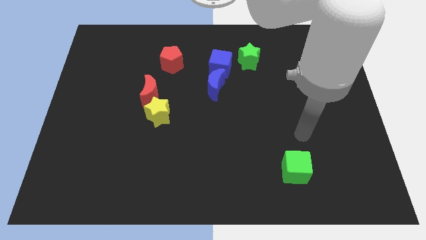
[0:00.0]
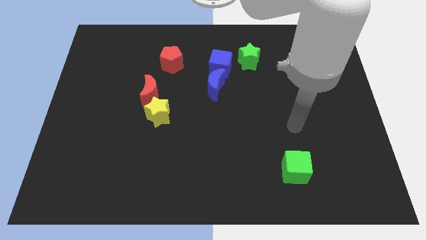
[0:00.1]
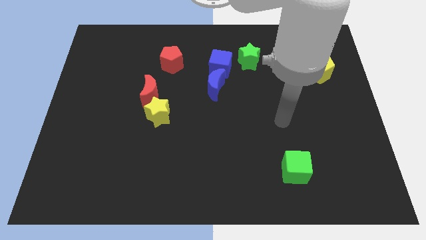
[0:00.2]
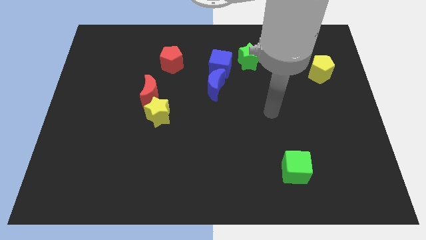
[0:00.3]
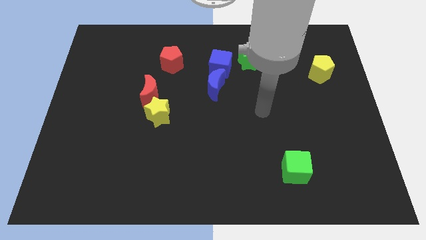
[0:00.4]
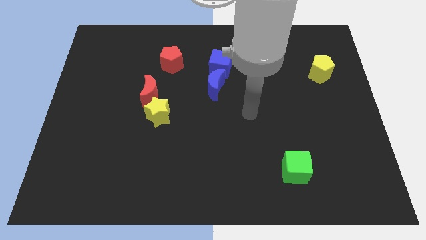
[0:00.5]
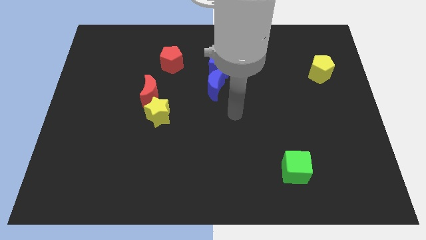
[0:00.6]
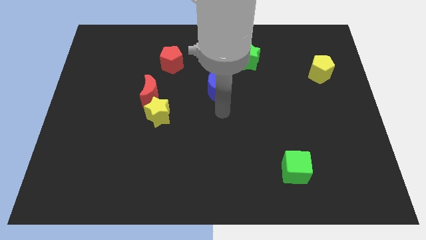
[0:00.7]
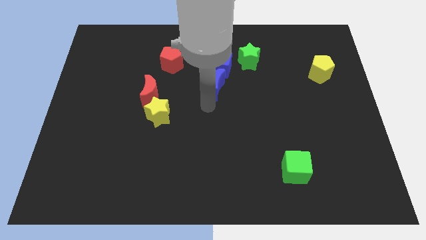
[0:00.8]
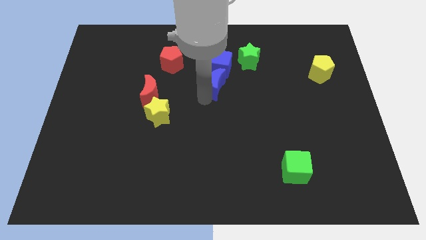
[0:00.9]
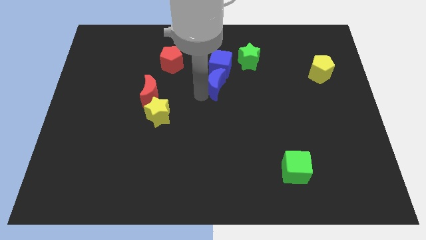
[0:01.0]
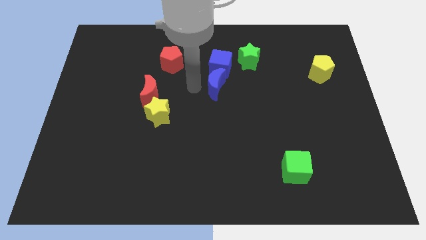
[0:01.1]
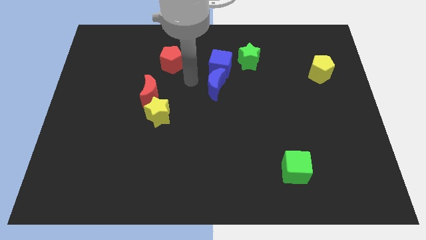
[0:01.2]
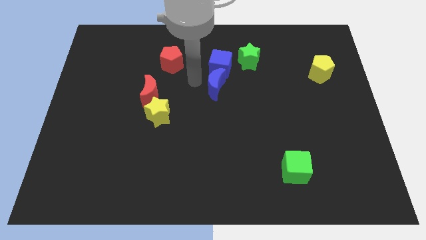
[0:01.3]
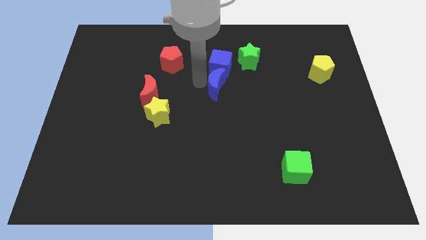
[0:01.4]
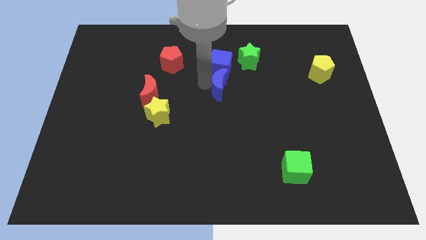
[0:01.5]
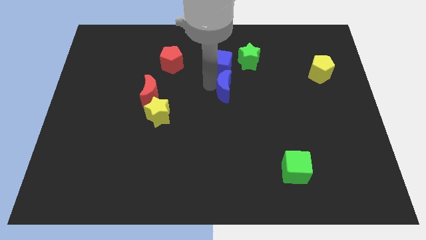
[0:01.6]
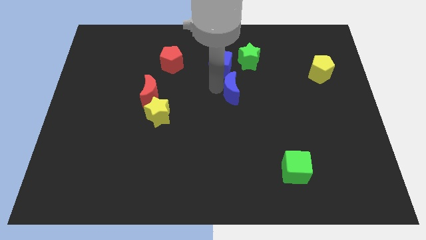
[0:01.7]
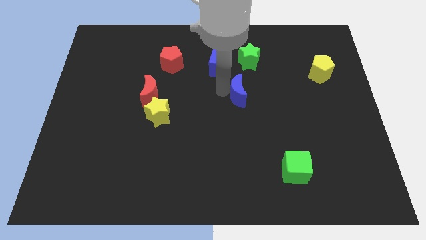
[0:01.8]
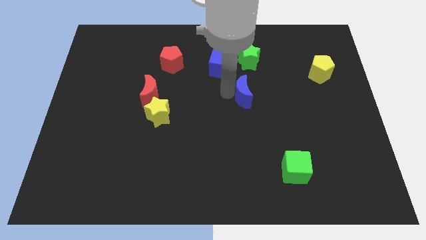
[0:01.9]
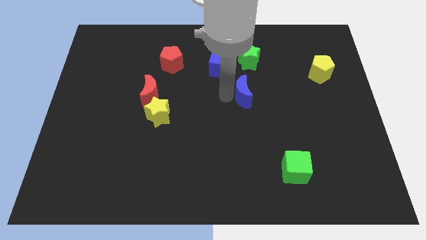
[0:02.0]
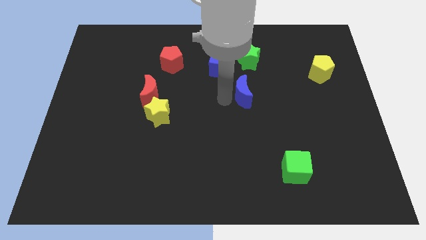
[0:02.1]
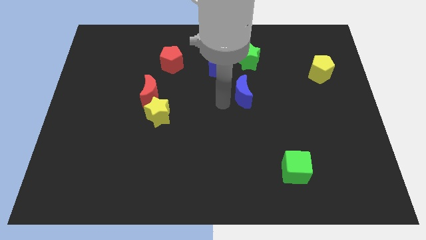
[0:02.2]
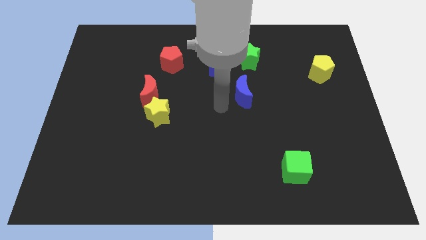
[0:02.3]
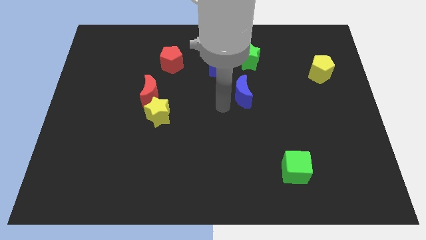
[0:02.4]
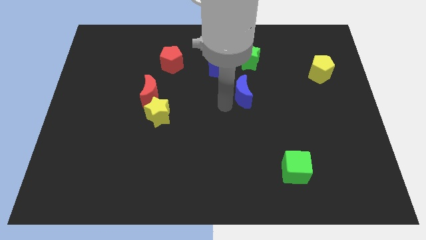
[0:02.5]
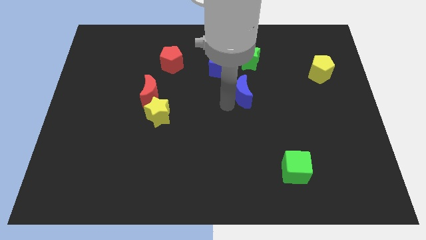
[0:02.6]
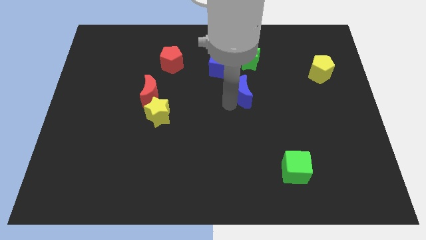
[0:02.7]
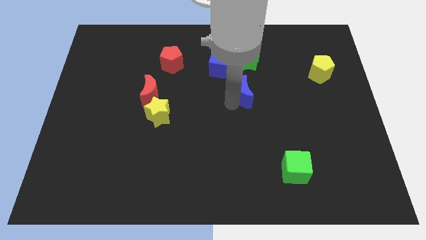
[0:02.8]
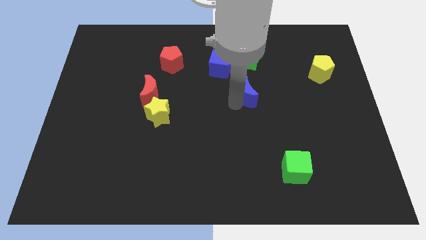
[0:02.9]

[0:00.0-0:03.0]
move the blue moon a bit right

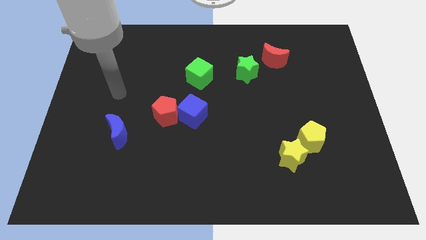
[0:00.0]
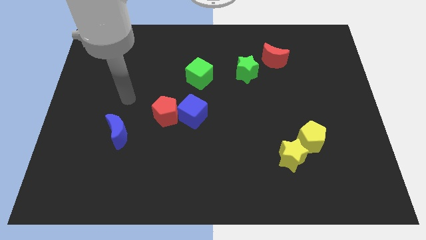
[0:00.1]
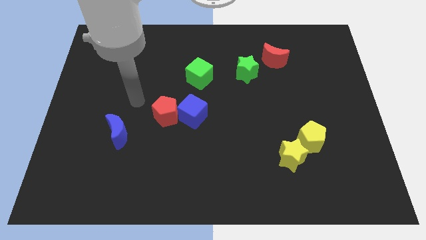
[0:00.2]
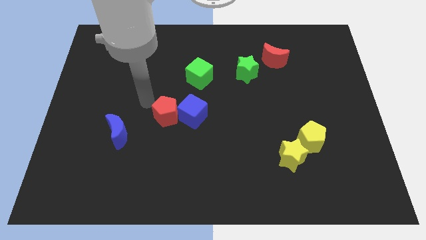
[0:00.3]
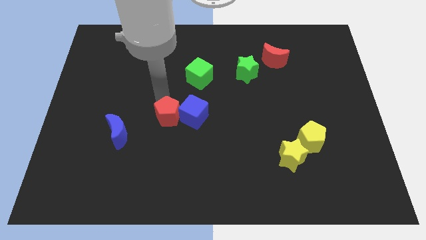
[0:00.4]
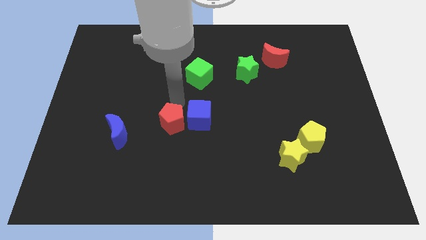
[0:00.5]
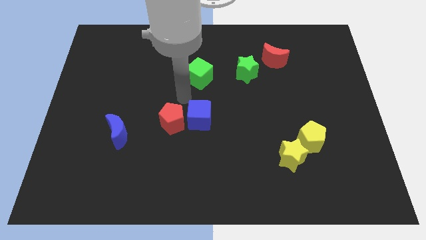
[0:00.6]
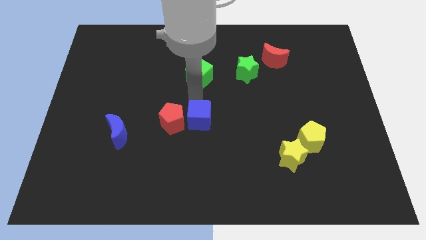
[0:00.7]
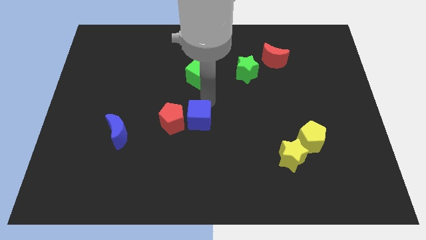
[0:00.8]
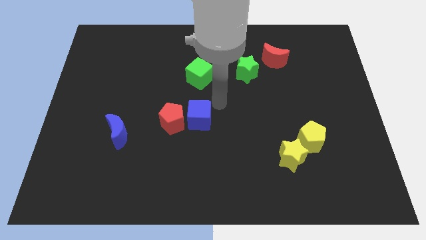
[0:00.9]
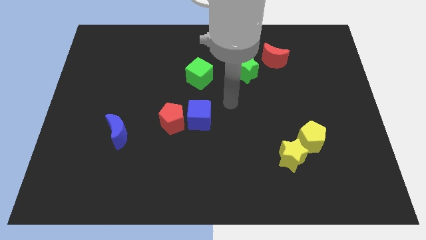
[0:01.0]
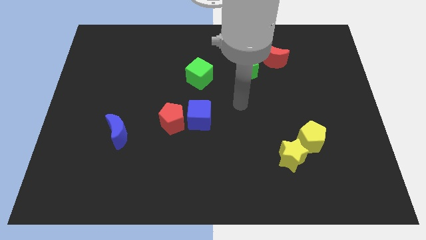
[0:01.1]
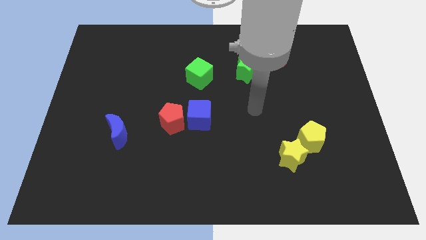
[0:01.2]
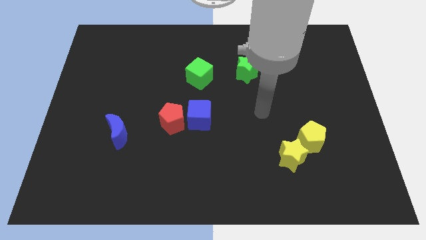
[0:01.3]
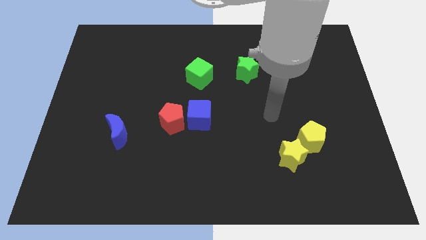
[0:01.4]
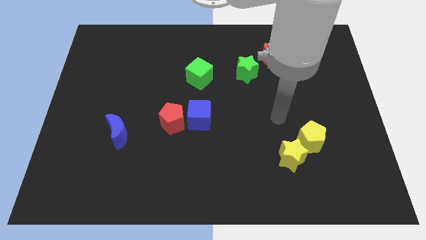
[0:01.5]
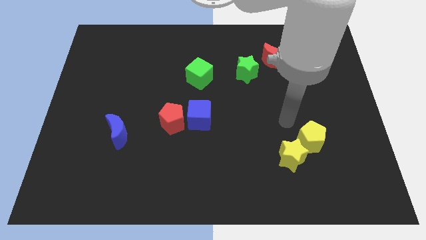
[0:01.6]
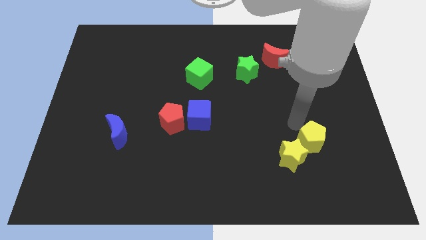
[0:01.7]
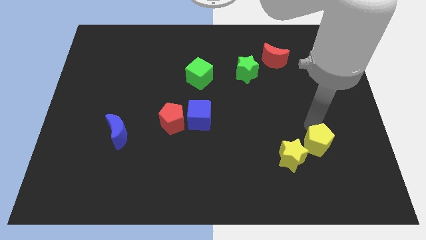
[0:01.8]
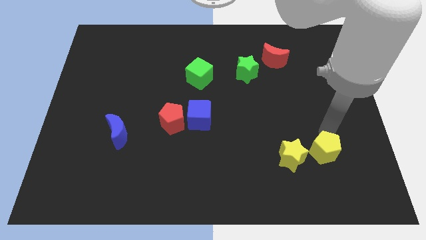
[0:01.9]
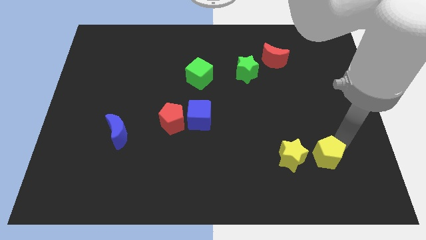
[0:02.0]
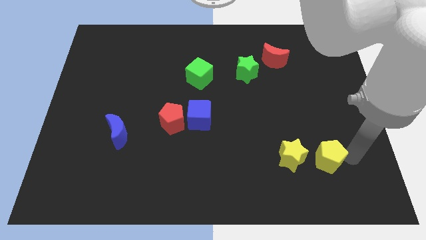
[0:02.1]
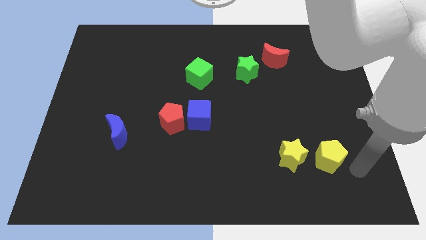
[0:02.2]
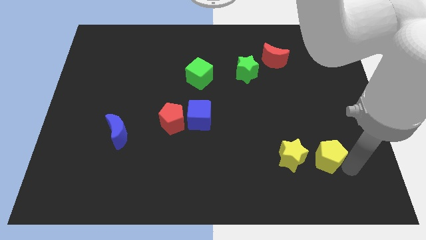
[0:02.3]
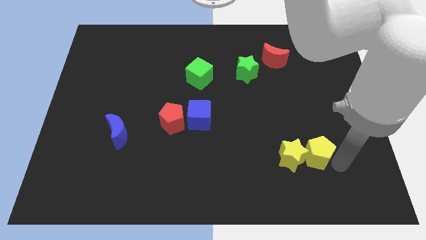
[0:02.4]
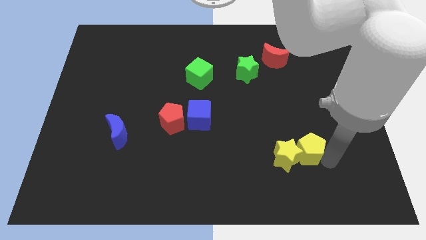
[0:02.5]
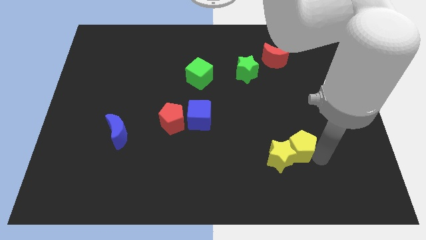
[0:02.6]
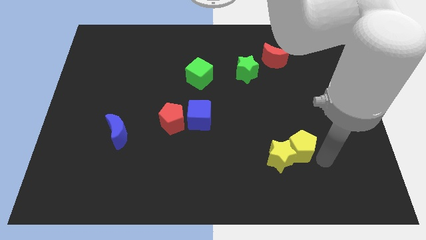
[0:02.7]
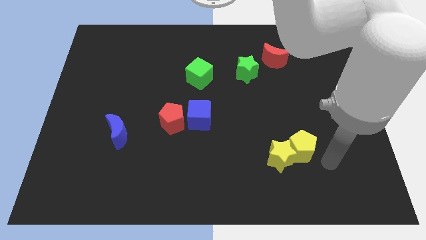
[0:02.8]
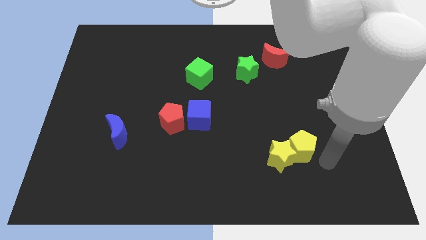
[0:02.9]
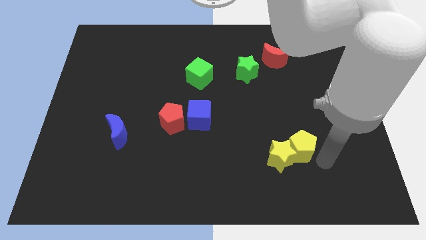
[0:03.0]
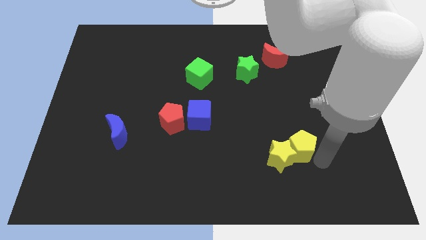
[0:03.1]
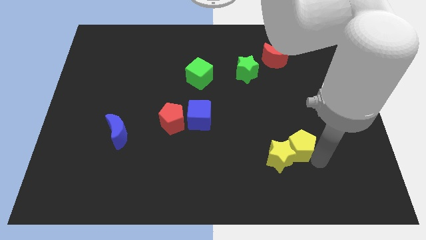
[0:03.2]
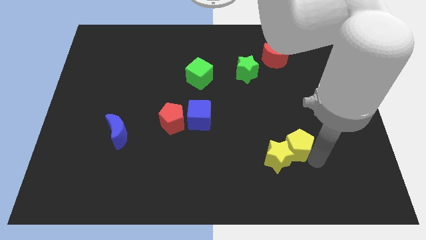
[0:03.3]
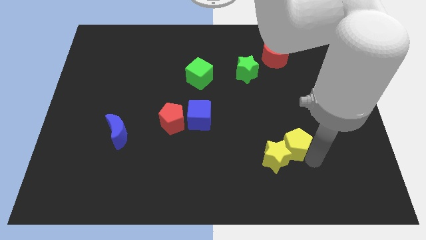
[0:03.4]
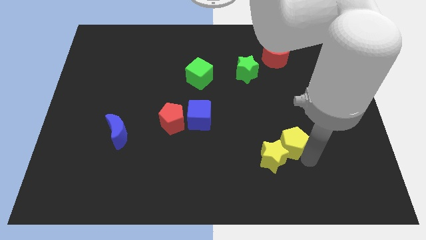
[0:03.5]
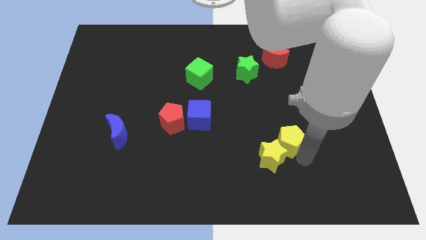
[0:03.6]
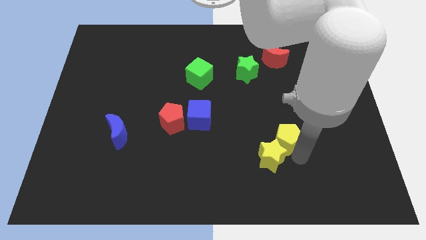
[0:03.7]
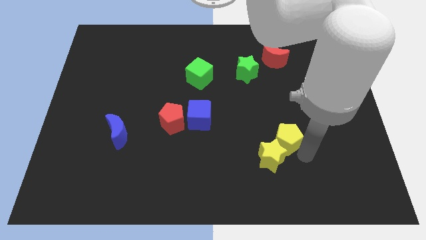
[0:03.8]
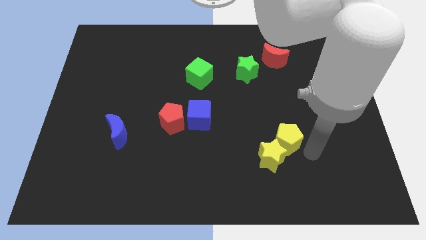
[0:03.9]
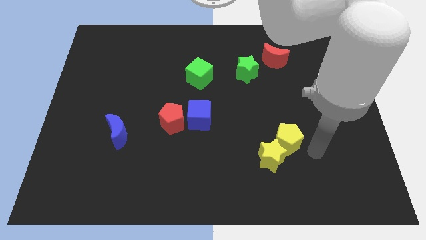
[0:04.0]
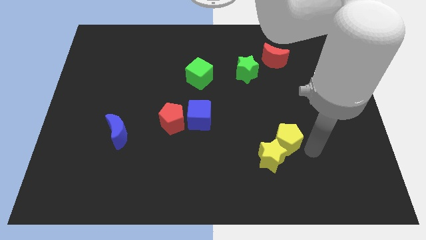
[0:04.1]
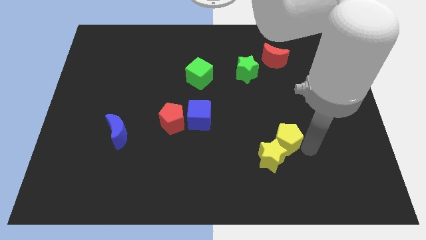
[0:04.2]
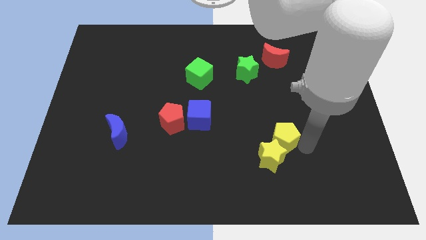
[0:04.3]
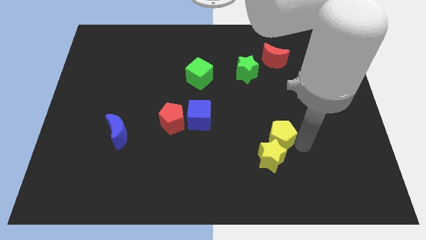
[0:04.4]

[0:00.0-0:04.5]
move the yellow pentagon left a bit

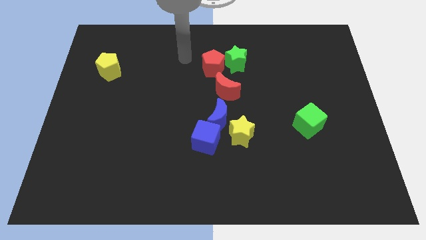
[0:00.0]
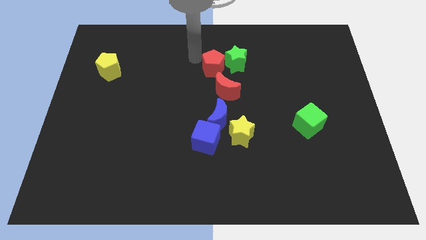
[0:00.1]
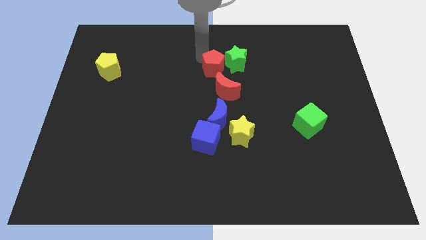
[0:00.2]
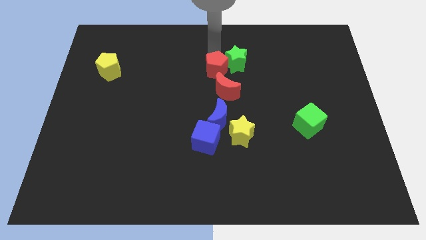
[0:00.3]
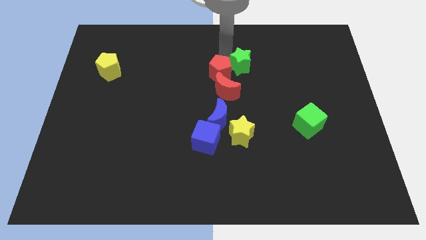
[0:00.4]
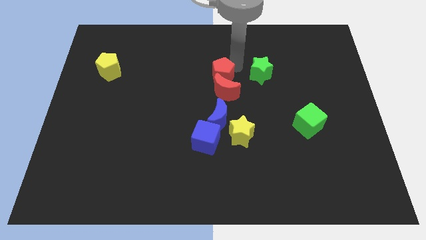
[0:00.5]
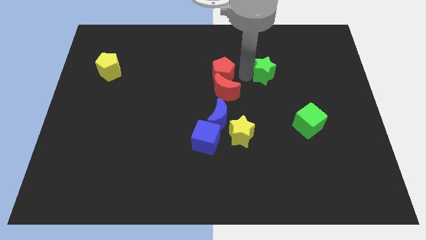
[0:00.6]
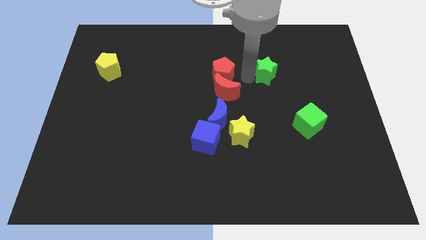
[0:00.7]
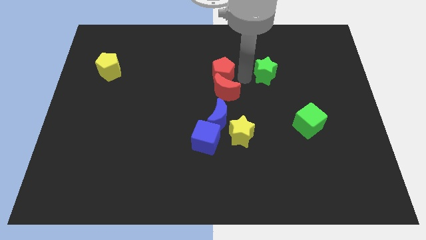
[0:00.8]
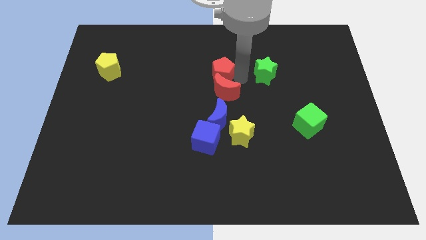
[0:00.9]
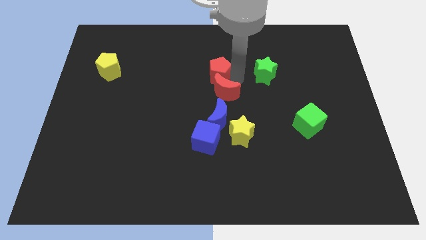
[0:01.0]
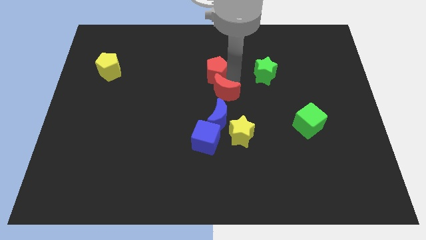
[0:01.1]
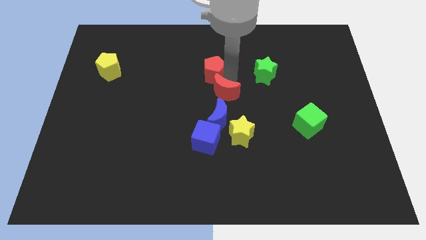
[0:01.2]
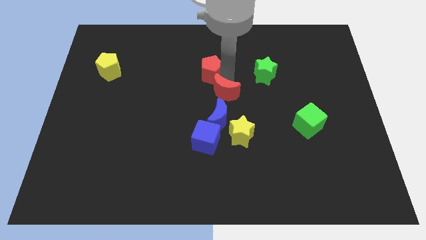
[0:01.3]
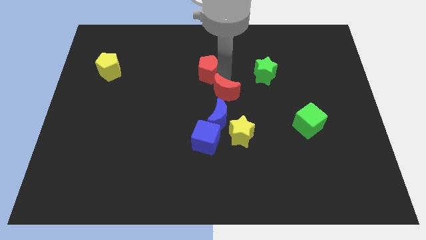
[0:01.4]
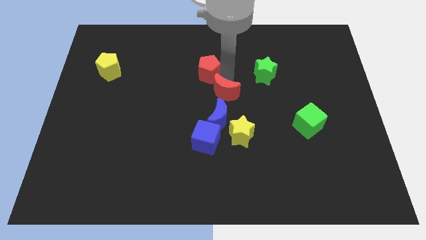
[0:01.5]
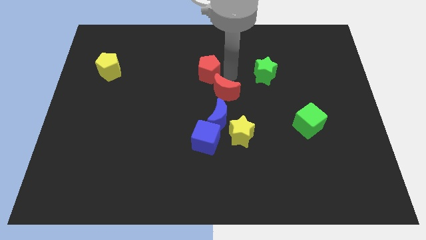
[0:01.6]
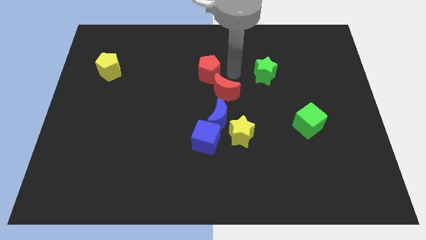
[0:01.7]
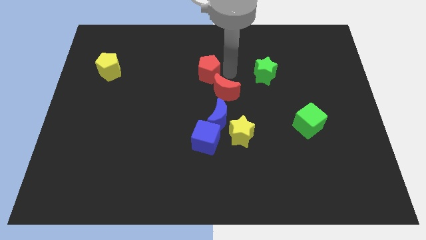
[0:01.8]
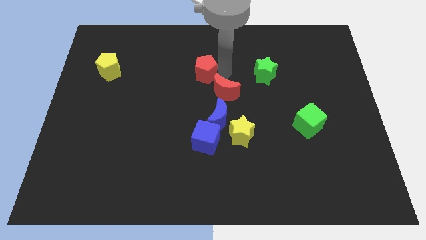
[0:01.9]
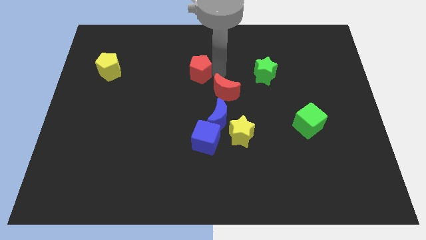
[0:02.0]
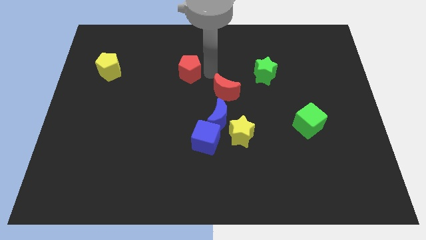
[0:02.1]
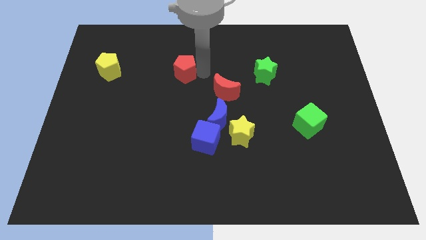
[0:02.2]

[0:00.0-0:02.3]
slightly push the red pentagon left
